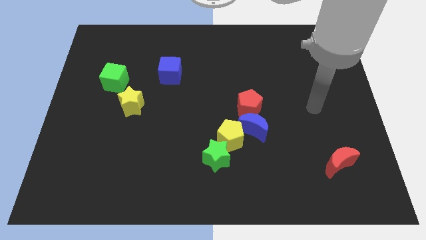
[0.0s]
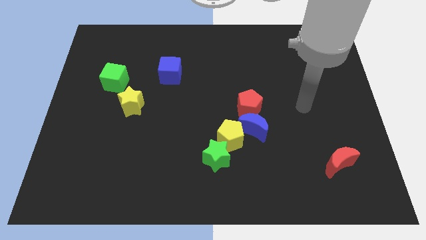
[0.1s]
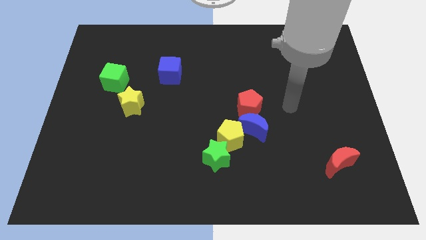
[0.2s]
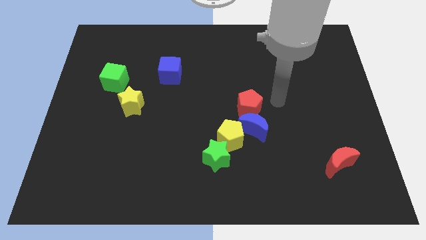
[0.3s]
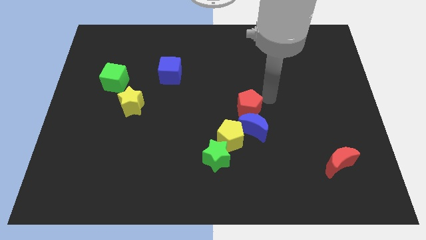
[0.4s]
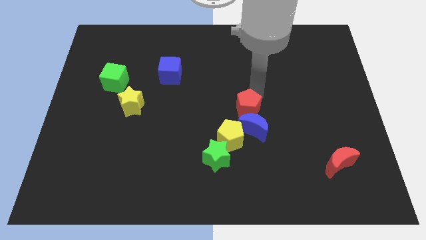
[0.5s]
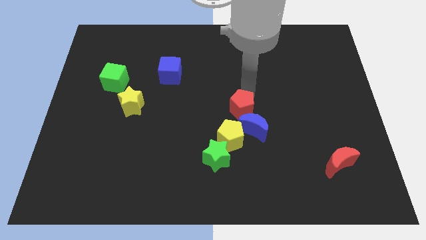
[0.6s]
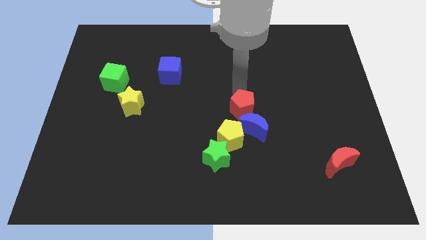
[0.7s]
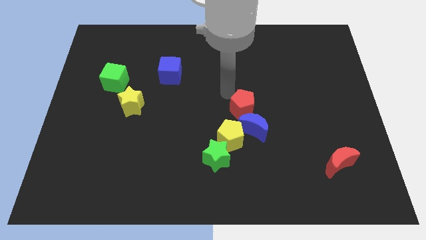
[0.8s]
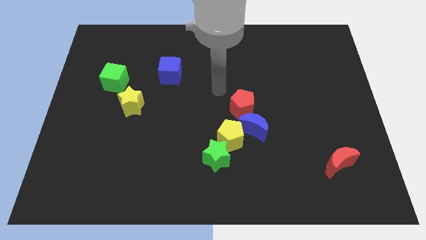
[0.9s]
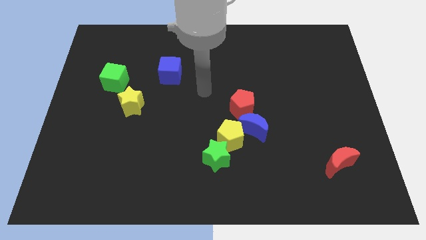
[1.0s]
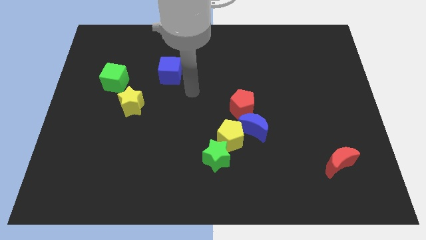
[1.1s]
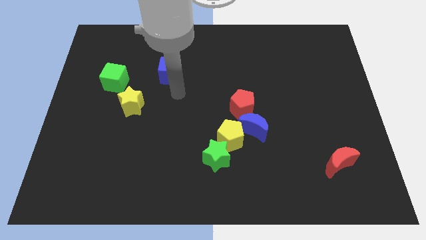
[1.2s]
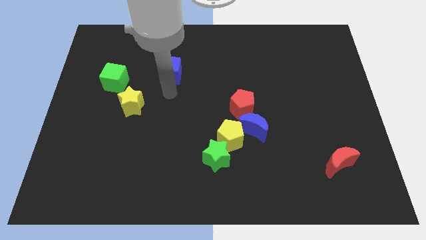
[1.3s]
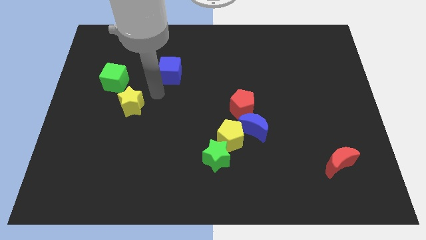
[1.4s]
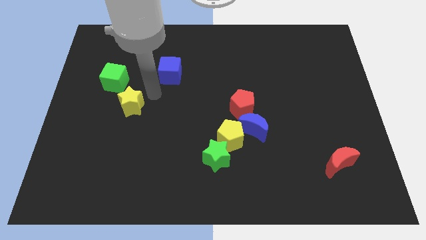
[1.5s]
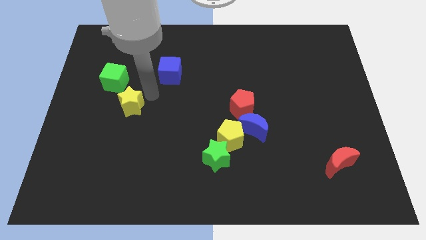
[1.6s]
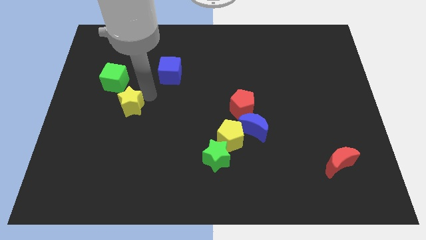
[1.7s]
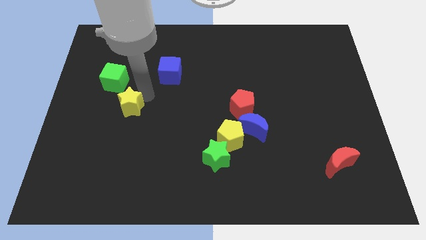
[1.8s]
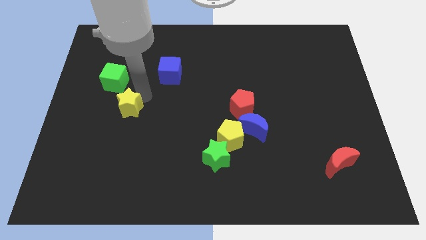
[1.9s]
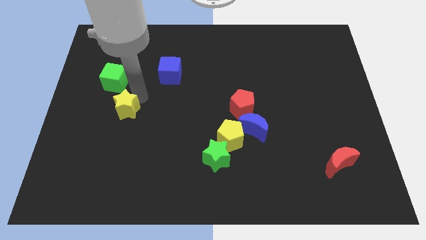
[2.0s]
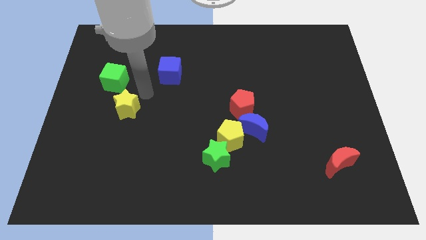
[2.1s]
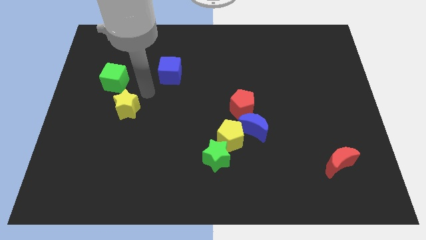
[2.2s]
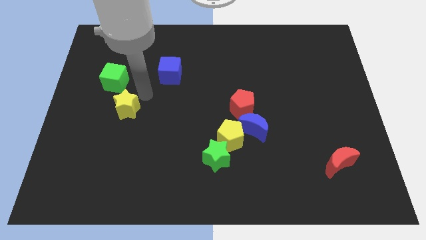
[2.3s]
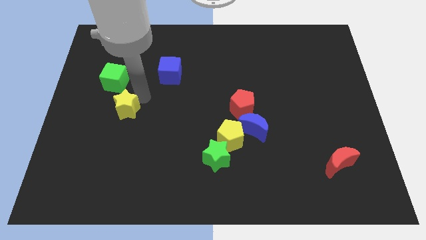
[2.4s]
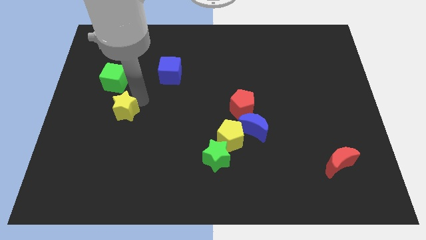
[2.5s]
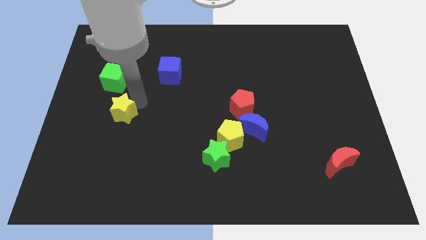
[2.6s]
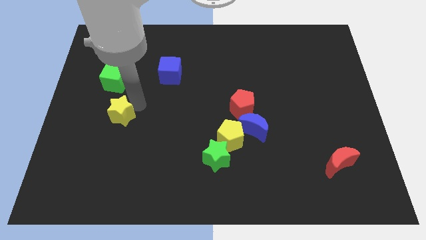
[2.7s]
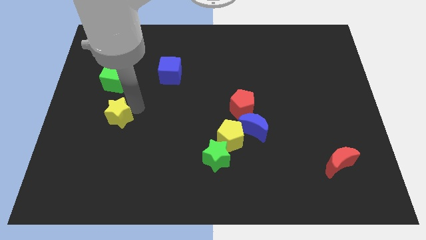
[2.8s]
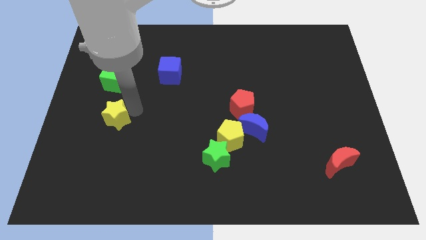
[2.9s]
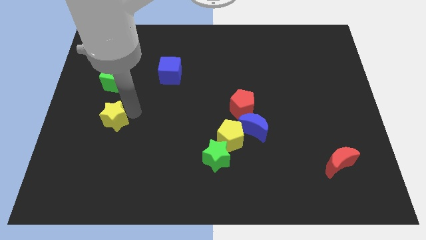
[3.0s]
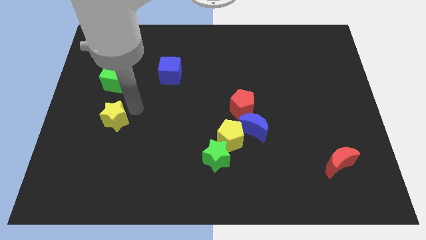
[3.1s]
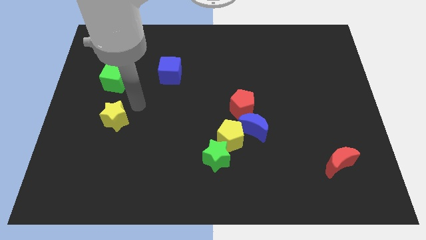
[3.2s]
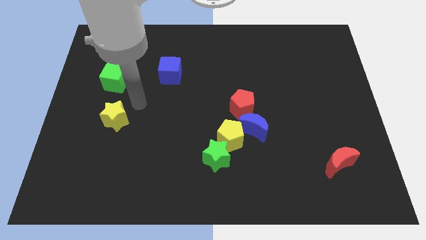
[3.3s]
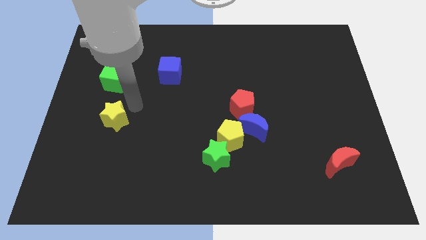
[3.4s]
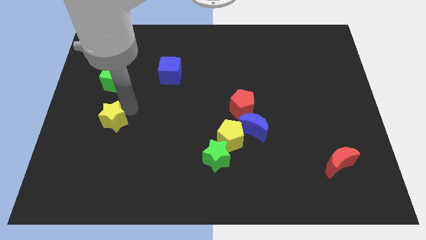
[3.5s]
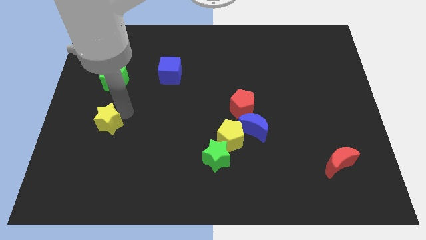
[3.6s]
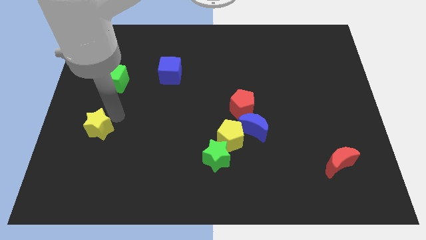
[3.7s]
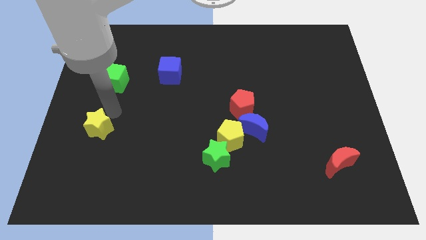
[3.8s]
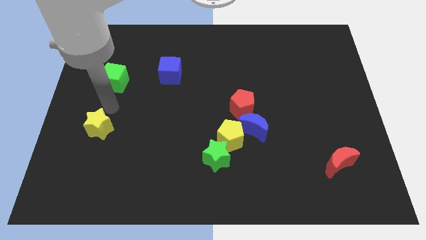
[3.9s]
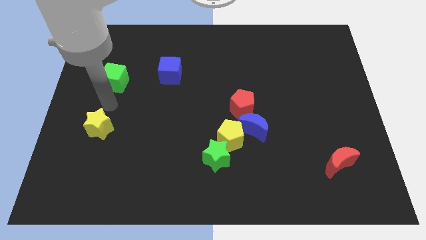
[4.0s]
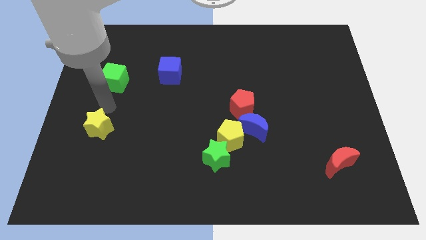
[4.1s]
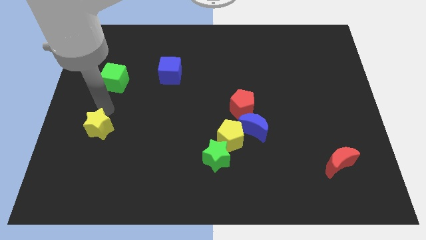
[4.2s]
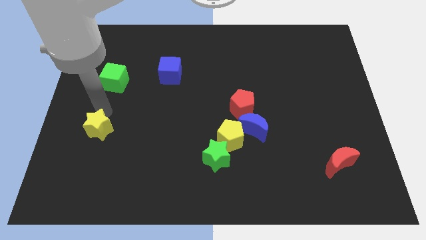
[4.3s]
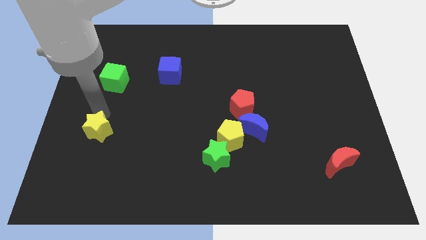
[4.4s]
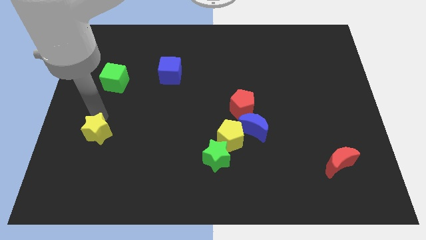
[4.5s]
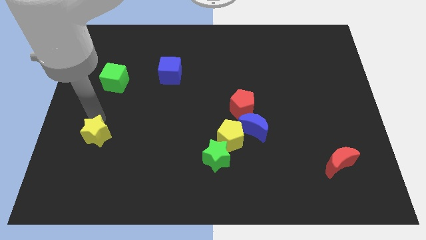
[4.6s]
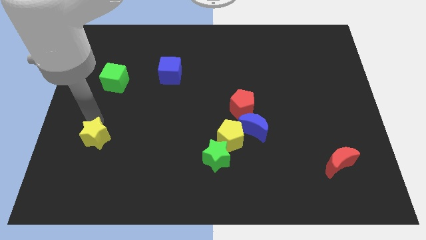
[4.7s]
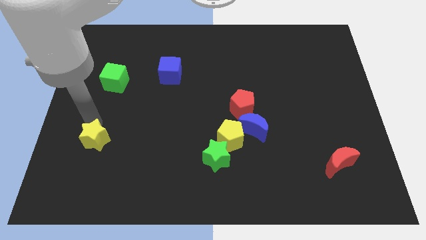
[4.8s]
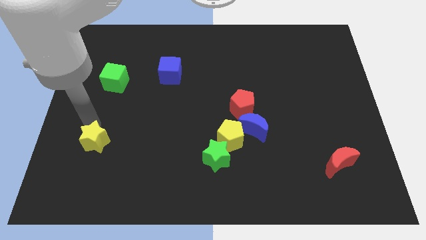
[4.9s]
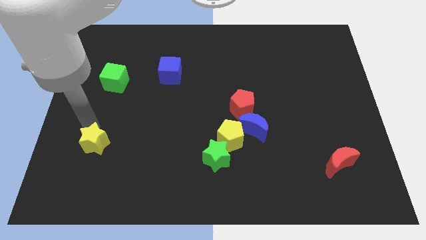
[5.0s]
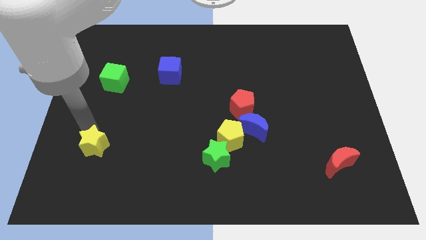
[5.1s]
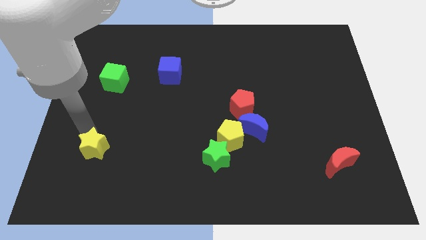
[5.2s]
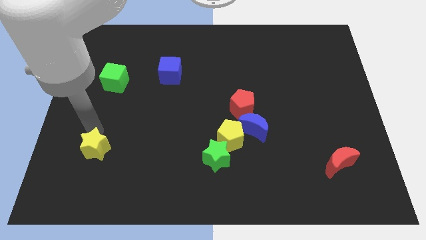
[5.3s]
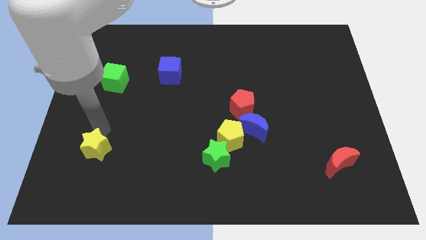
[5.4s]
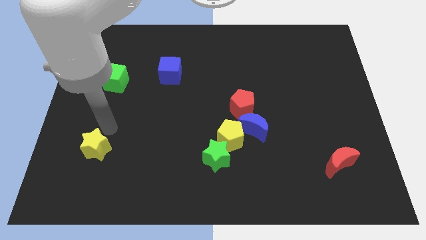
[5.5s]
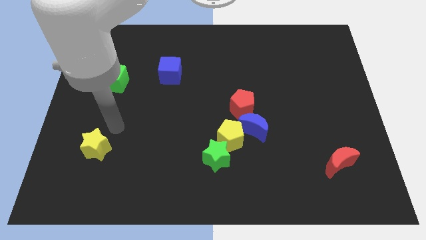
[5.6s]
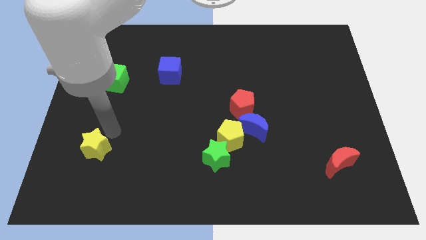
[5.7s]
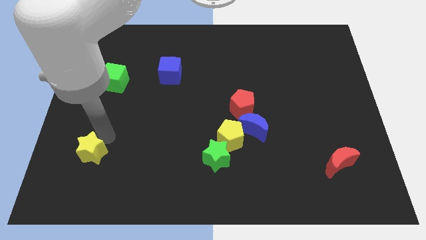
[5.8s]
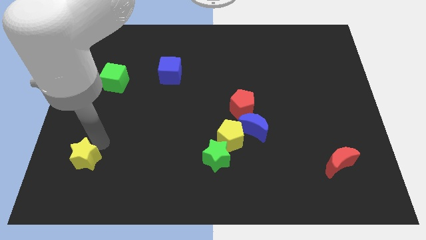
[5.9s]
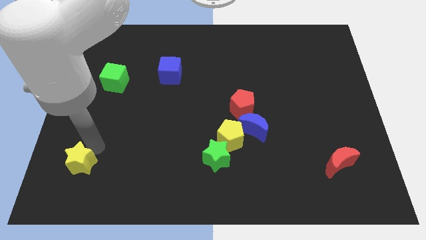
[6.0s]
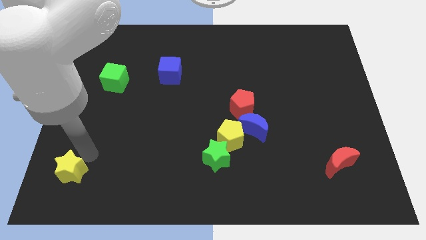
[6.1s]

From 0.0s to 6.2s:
slide the yellow star to the bottom left corner
